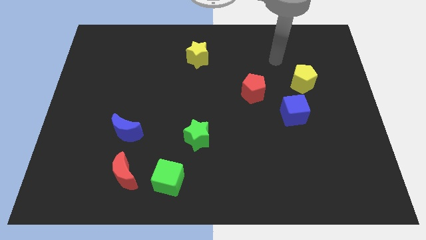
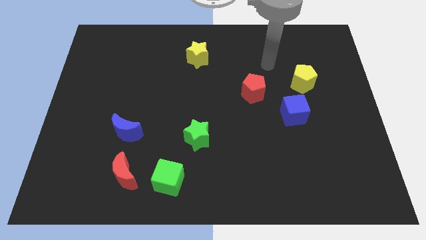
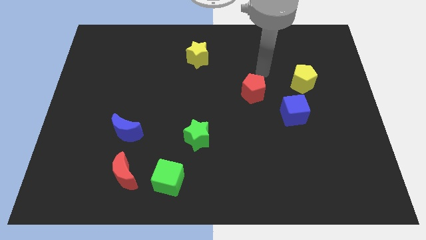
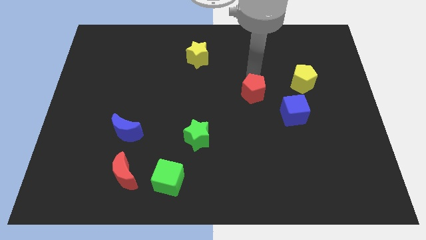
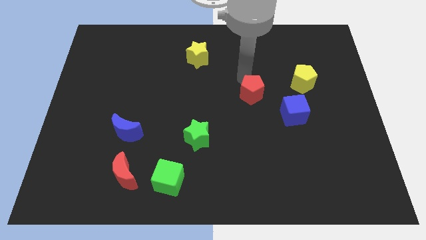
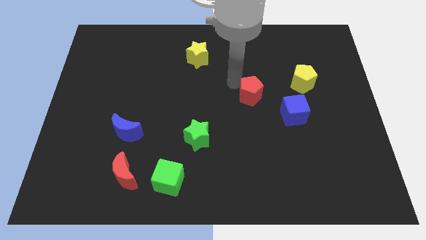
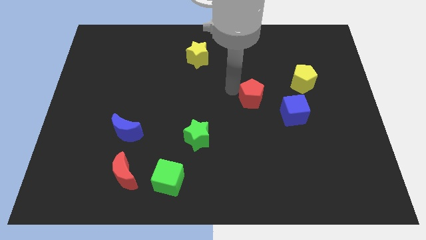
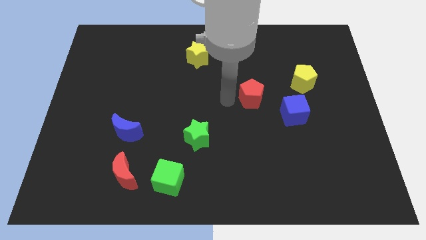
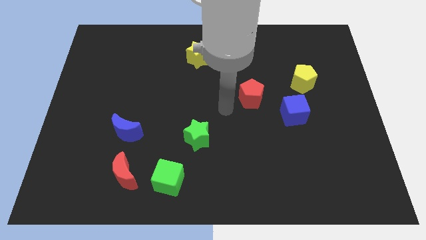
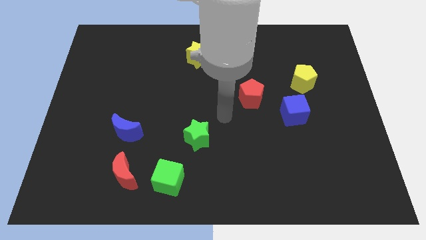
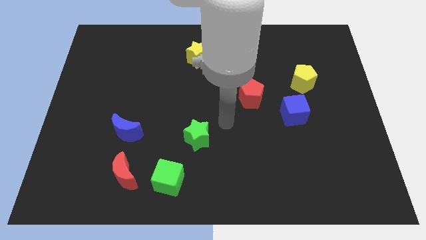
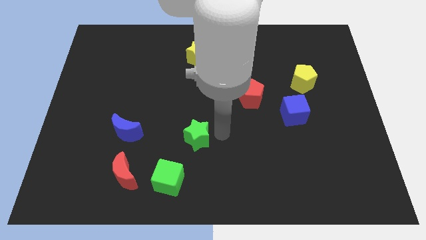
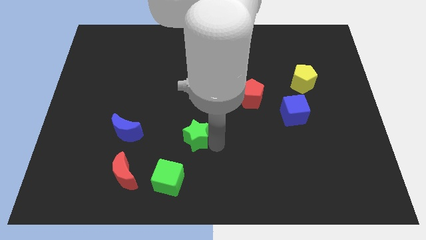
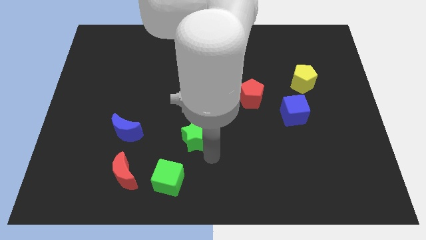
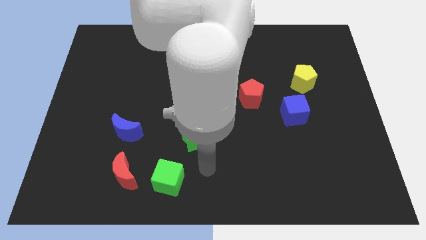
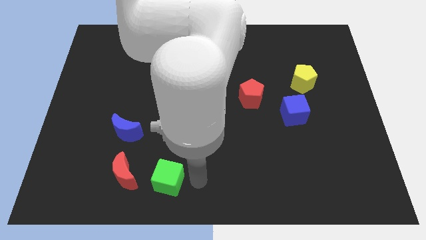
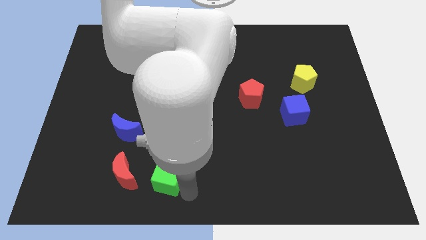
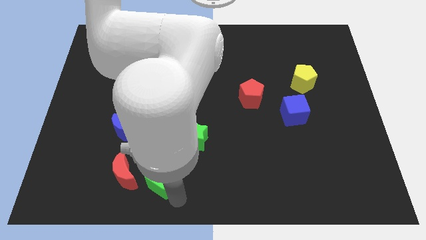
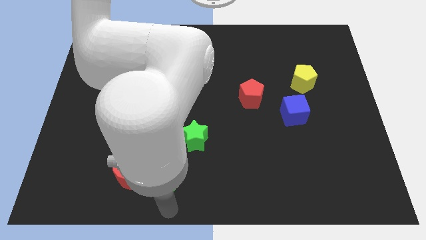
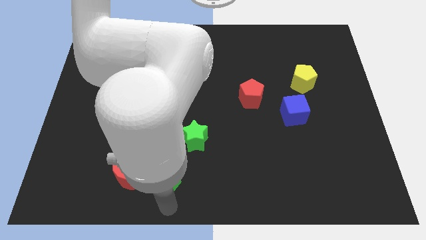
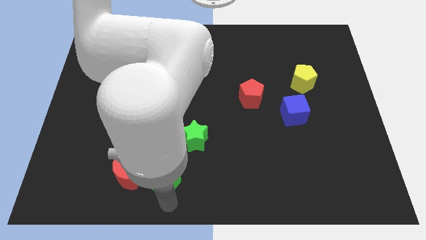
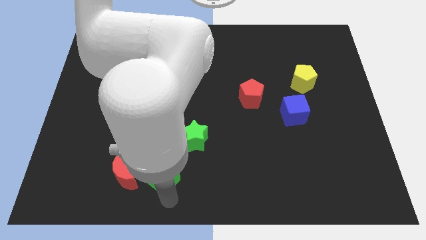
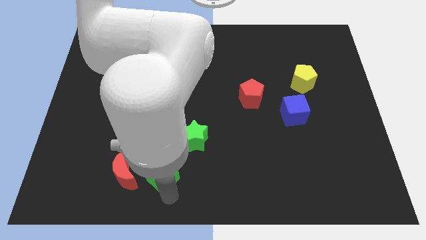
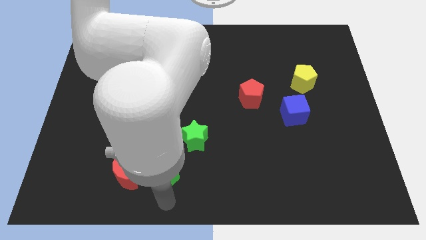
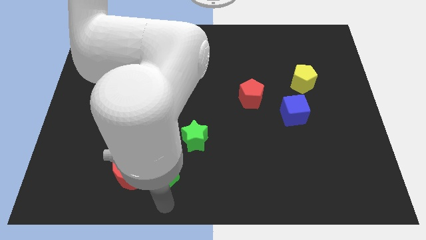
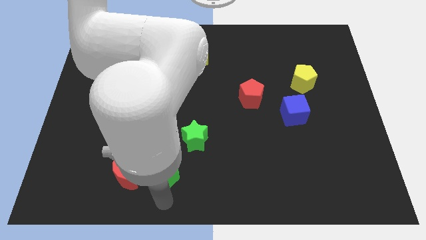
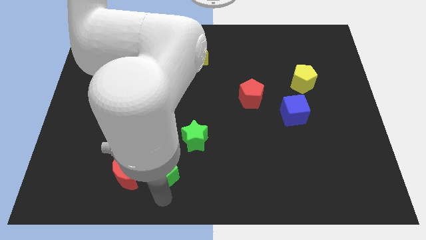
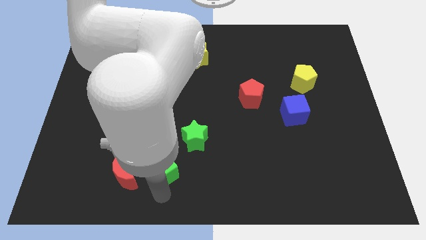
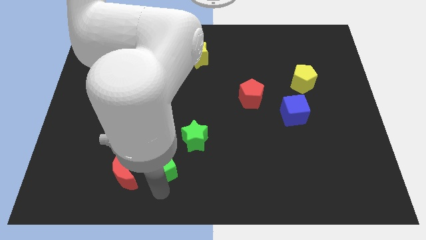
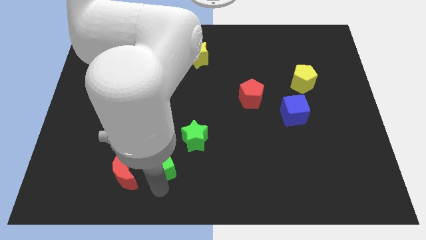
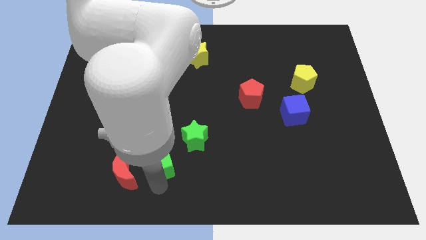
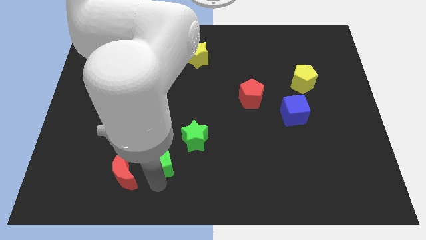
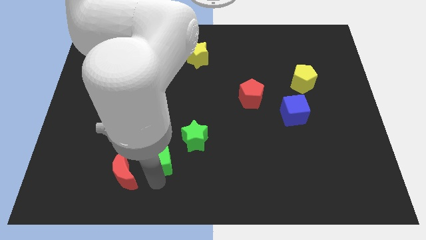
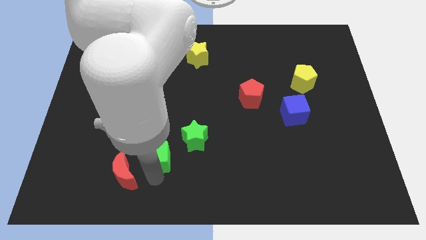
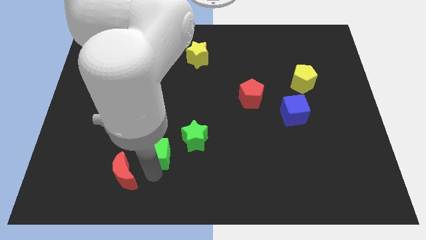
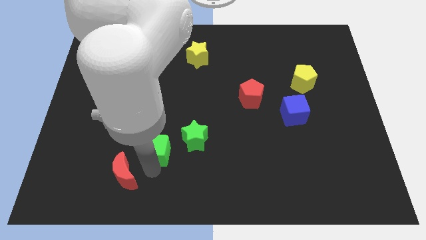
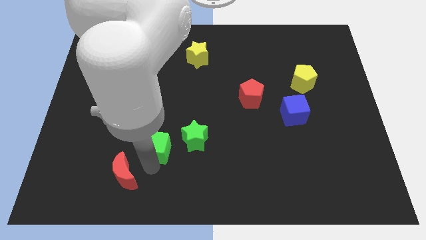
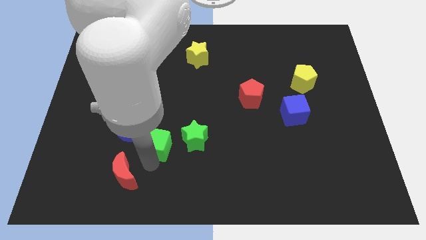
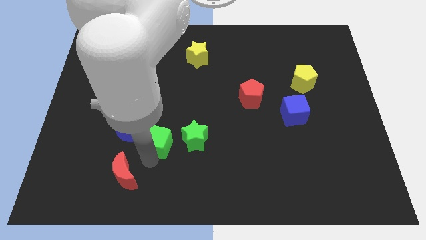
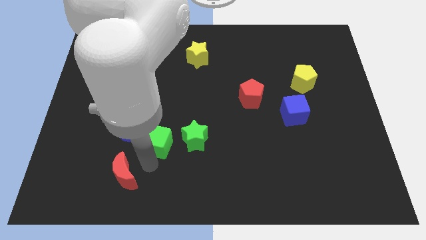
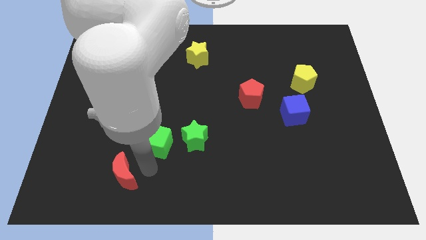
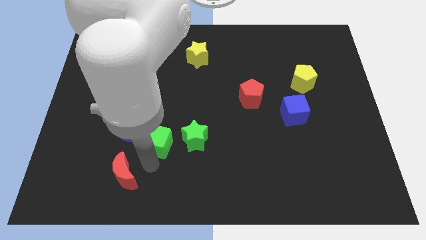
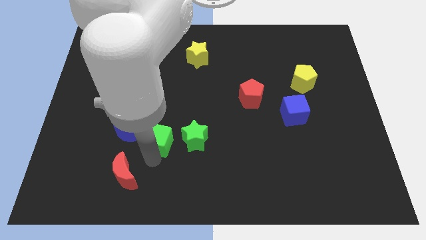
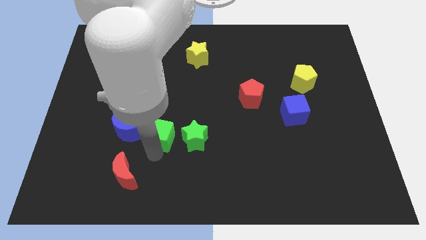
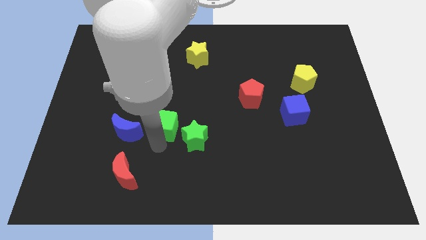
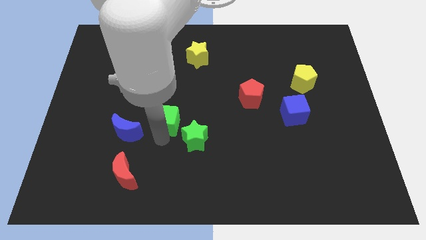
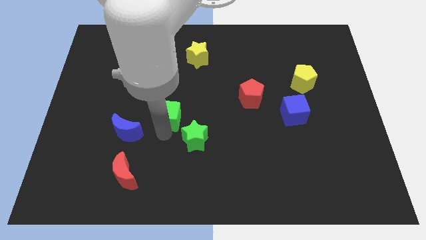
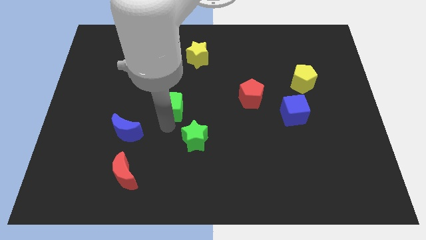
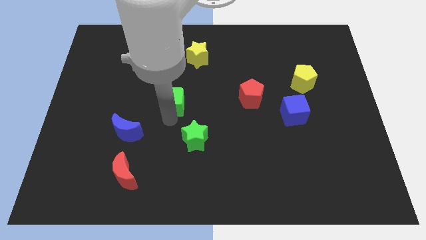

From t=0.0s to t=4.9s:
move the green cube up

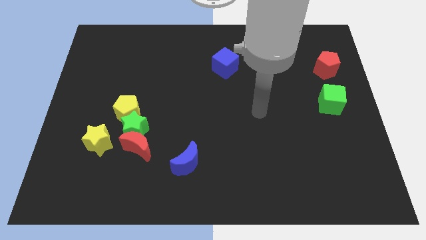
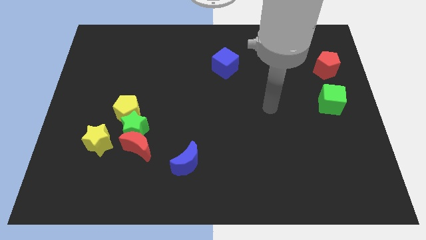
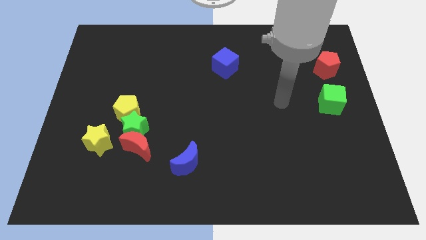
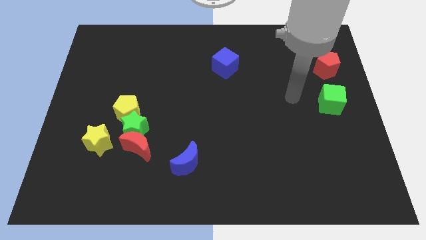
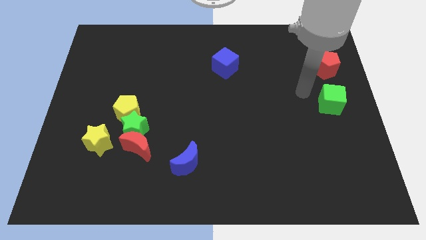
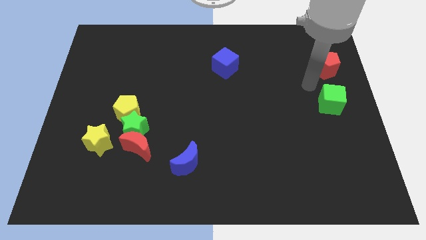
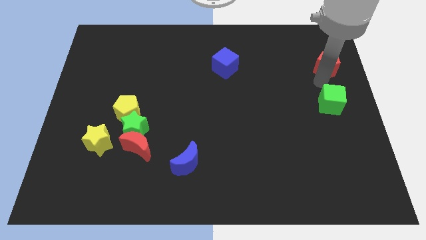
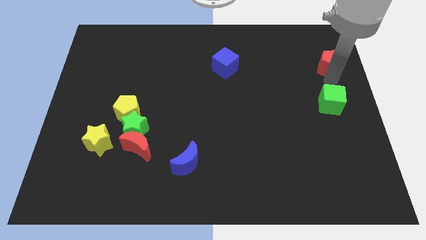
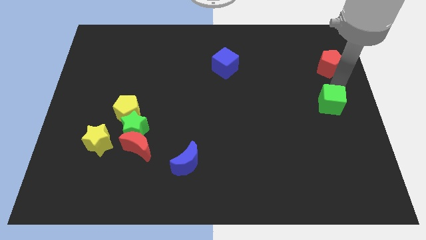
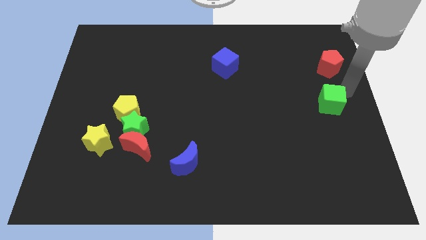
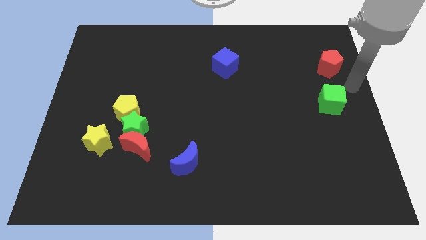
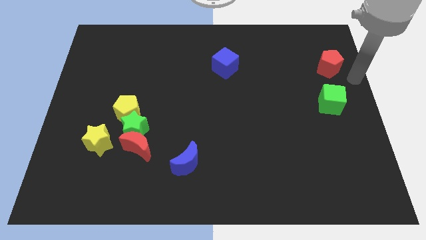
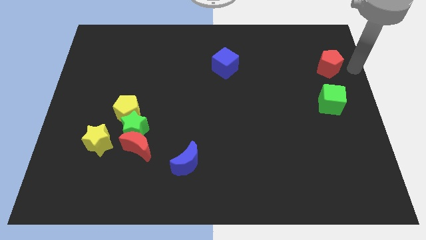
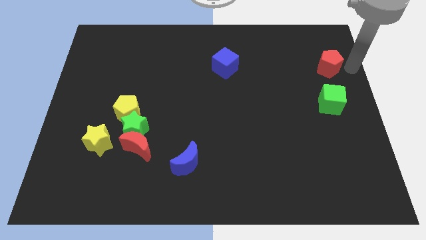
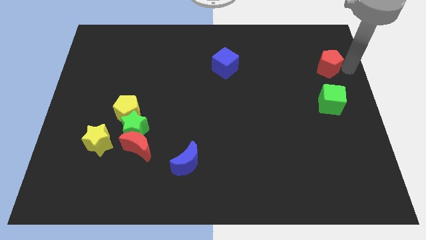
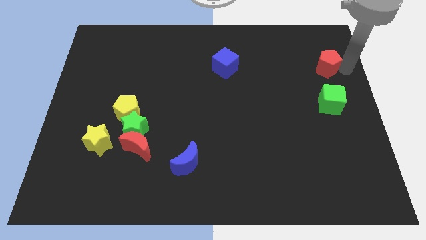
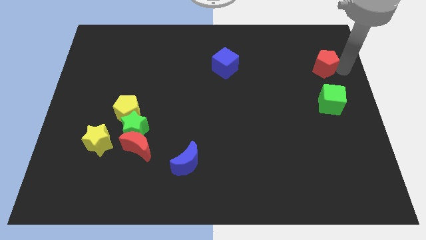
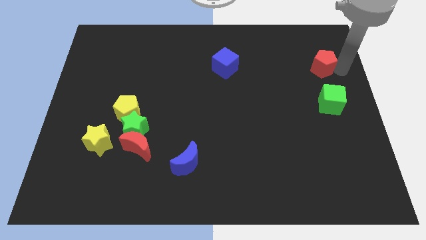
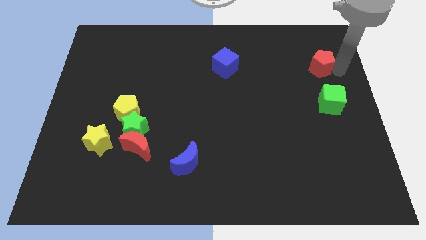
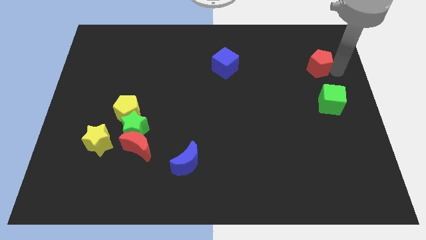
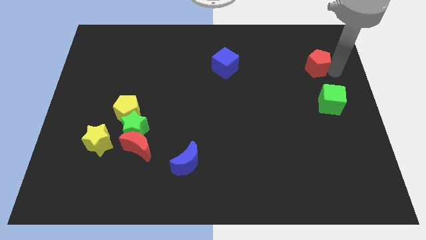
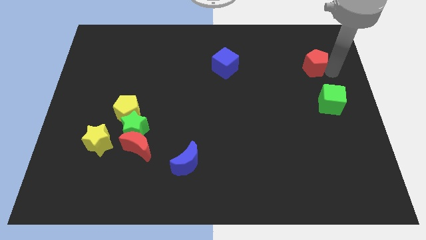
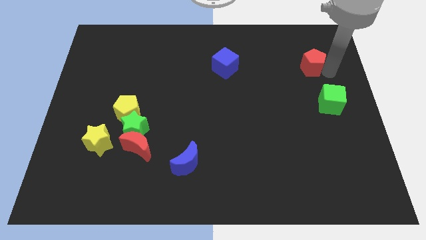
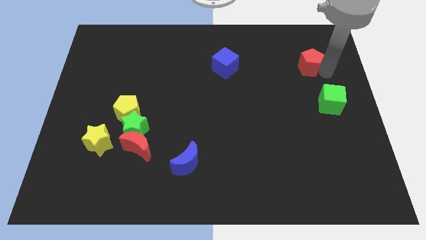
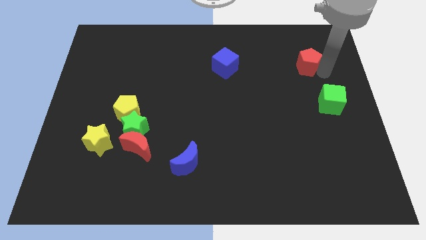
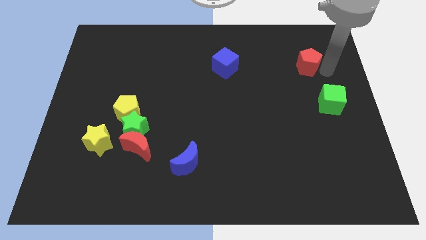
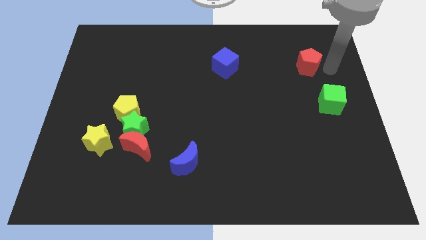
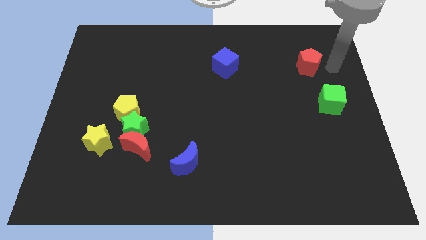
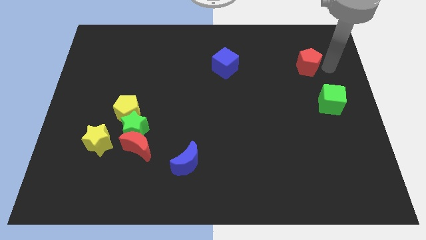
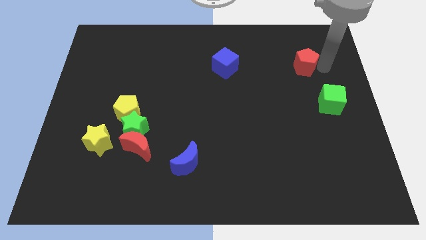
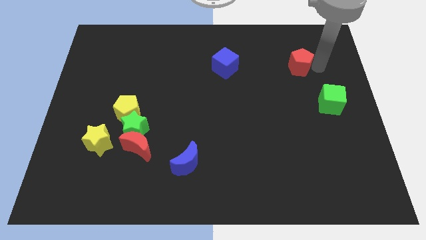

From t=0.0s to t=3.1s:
slightly slide the red pentagon left
